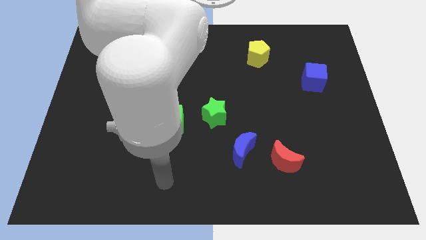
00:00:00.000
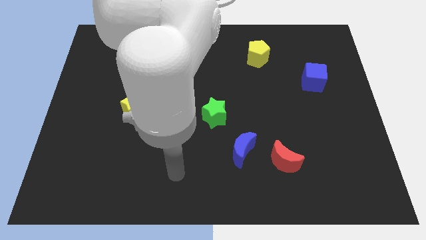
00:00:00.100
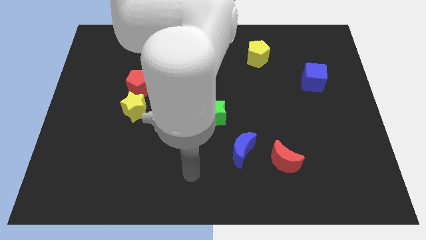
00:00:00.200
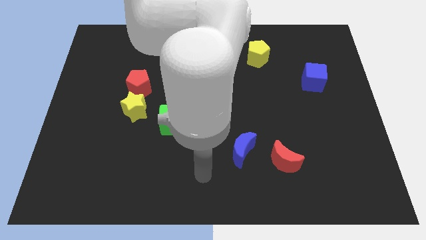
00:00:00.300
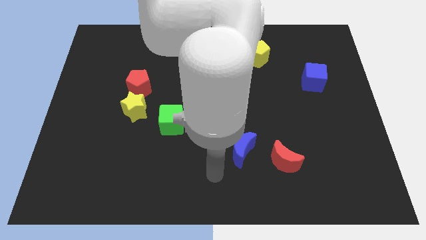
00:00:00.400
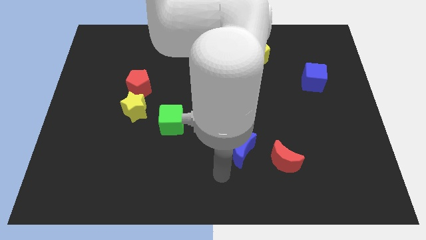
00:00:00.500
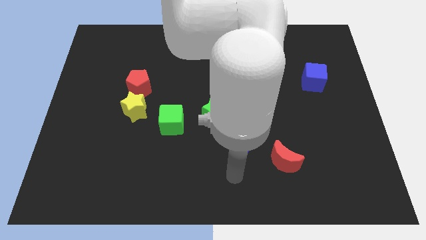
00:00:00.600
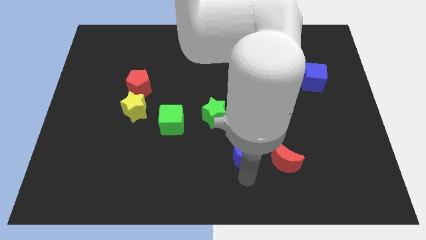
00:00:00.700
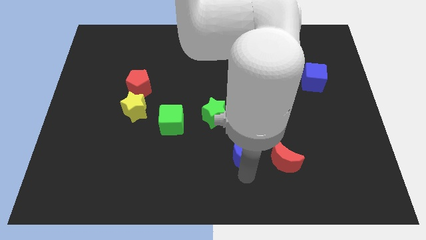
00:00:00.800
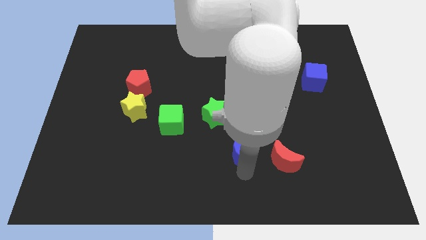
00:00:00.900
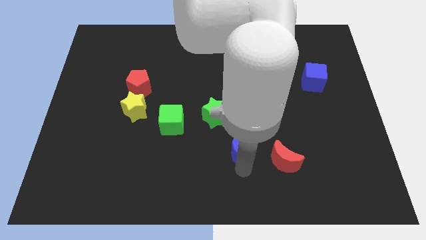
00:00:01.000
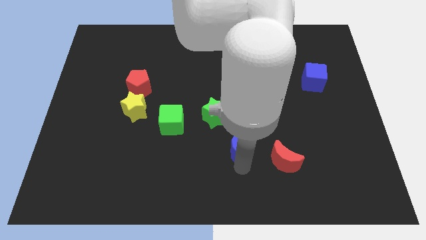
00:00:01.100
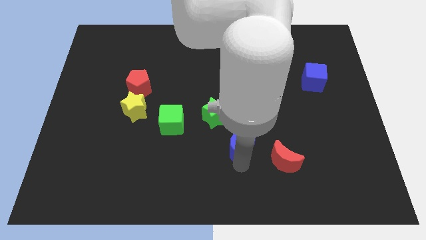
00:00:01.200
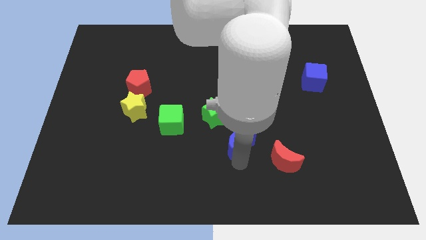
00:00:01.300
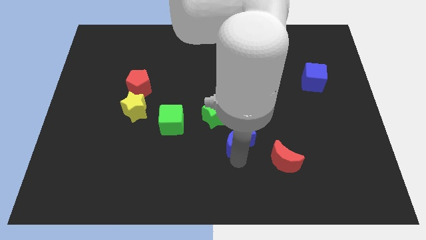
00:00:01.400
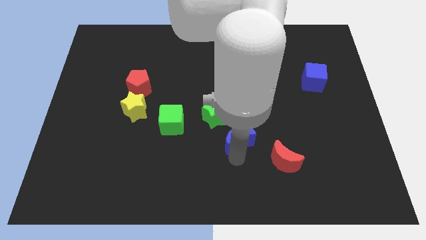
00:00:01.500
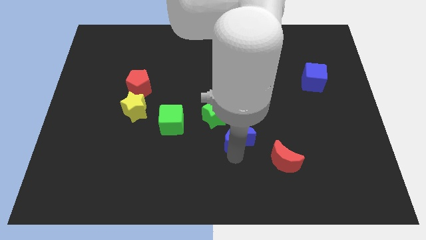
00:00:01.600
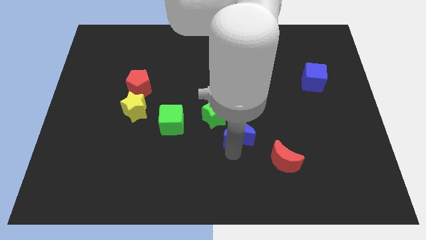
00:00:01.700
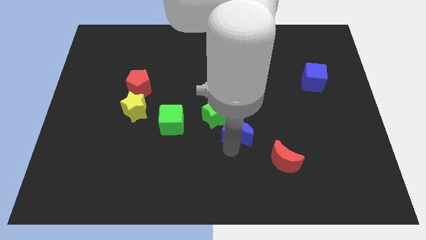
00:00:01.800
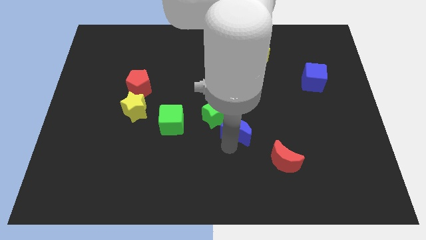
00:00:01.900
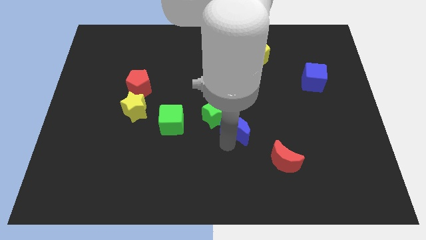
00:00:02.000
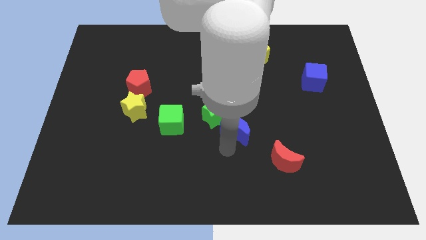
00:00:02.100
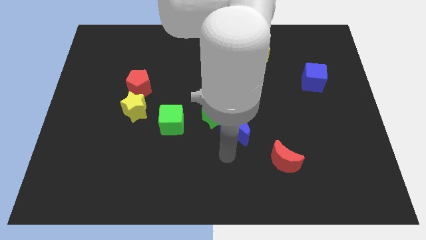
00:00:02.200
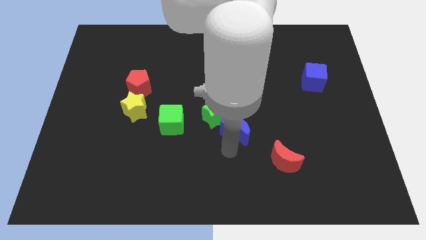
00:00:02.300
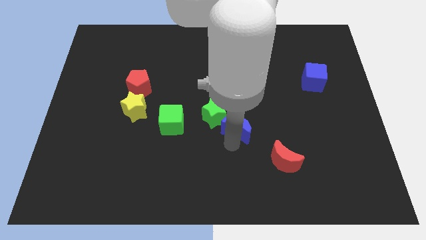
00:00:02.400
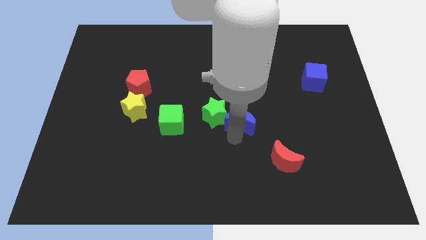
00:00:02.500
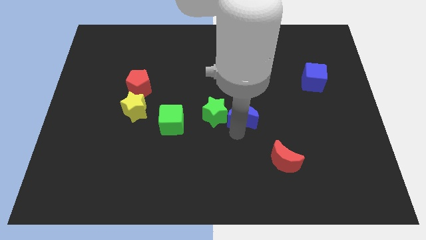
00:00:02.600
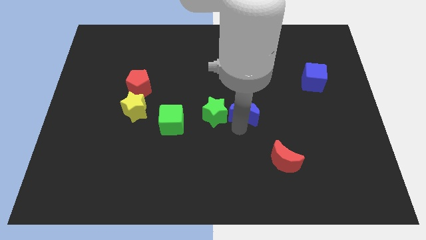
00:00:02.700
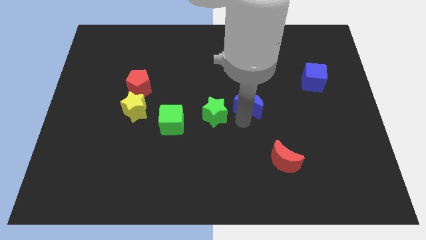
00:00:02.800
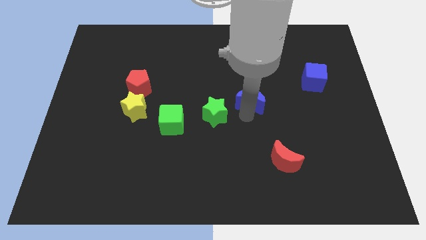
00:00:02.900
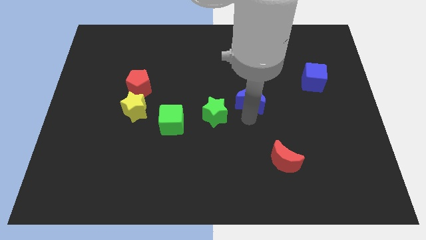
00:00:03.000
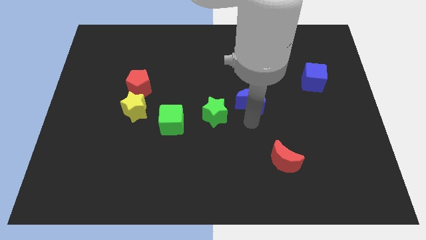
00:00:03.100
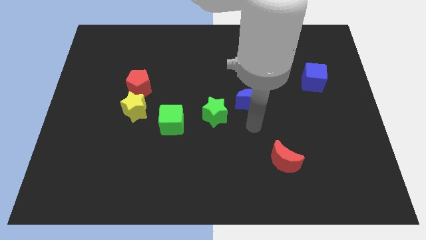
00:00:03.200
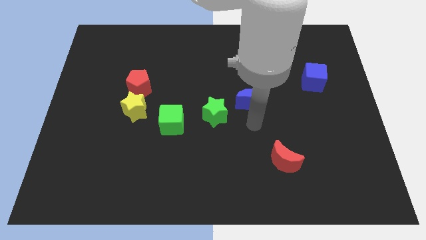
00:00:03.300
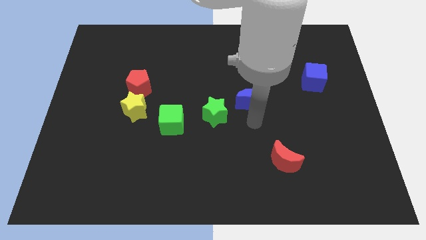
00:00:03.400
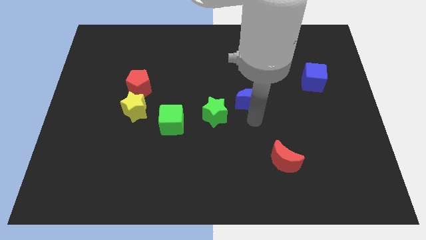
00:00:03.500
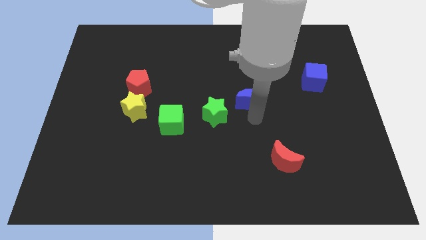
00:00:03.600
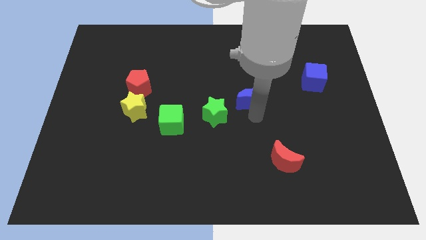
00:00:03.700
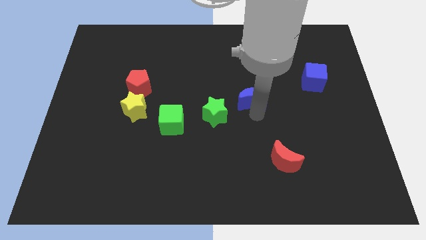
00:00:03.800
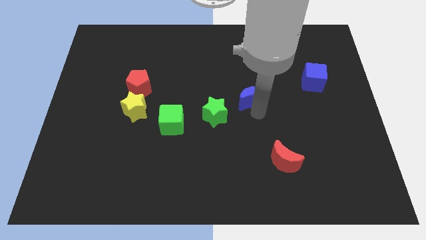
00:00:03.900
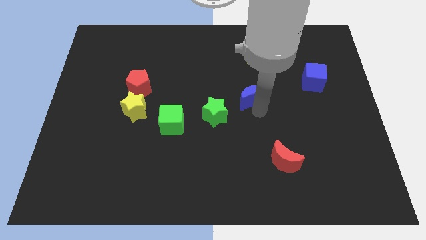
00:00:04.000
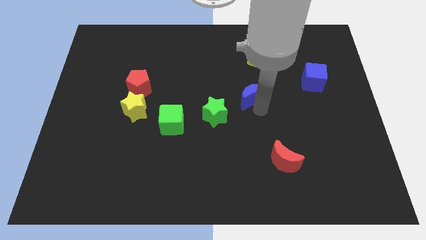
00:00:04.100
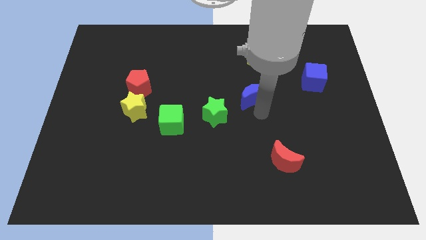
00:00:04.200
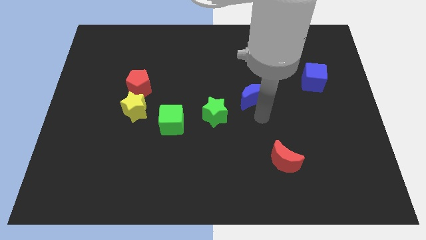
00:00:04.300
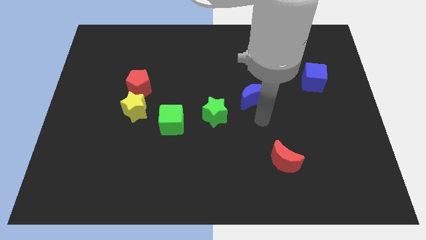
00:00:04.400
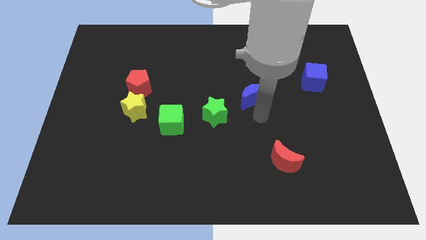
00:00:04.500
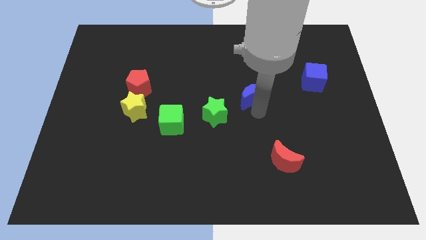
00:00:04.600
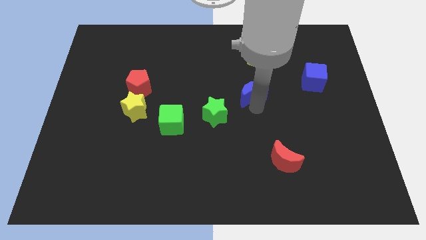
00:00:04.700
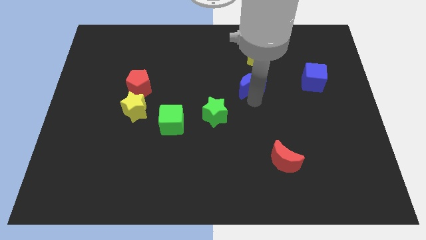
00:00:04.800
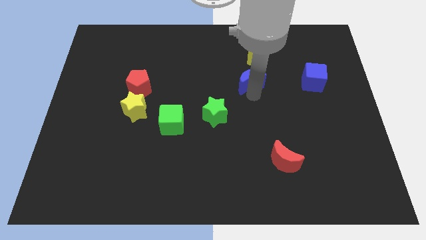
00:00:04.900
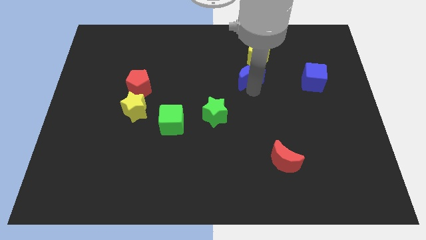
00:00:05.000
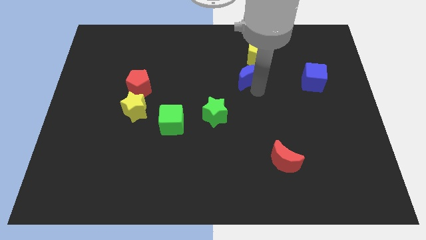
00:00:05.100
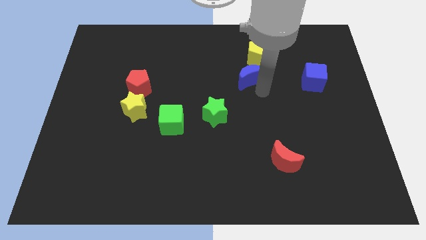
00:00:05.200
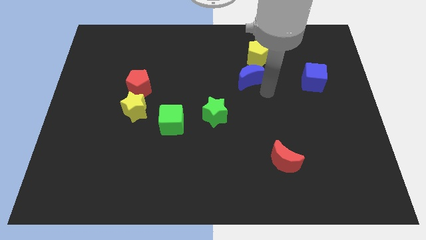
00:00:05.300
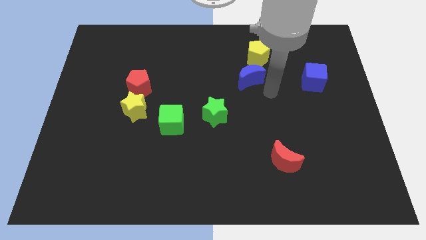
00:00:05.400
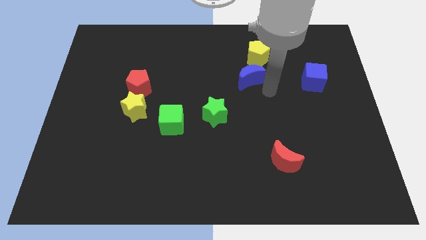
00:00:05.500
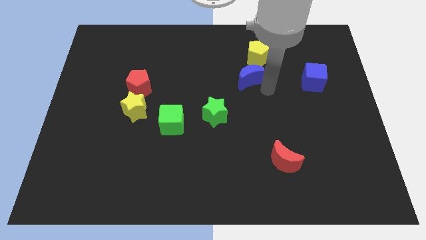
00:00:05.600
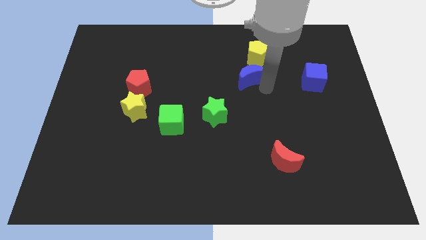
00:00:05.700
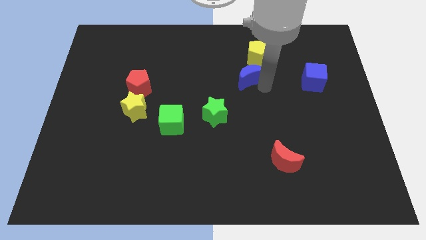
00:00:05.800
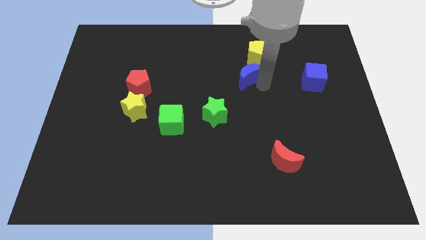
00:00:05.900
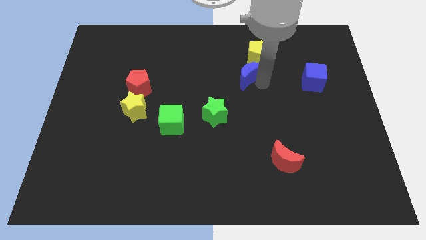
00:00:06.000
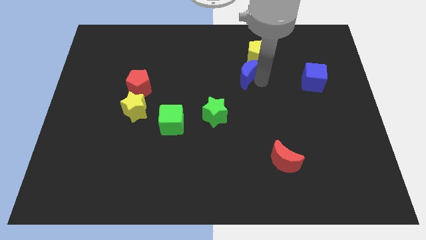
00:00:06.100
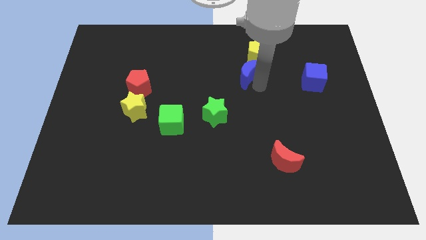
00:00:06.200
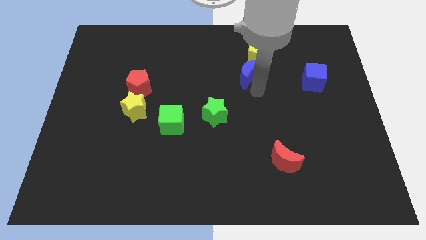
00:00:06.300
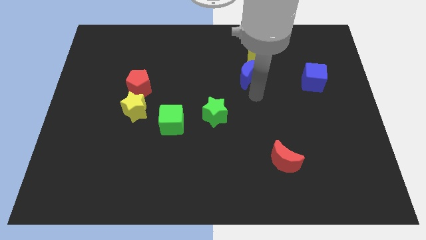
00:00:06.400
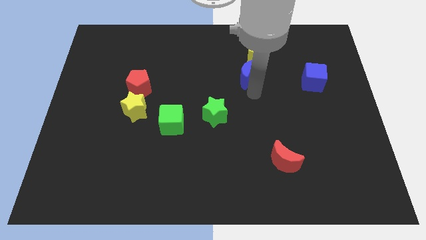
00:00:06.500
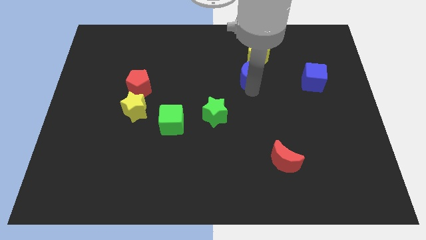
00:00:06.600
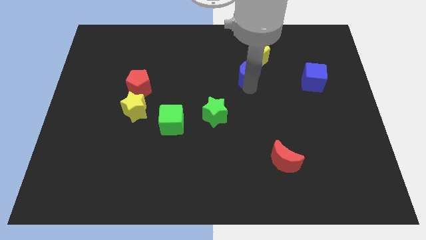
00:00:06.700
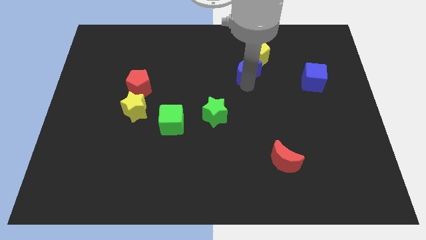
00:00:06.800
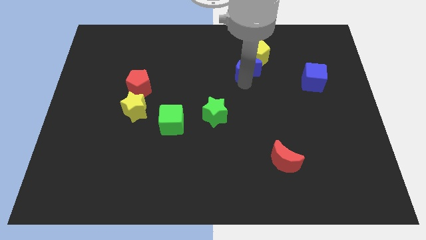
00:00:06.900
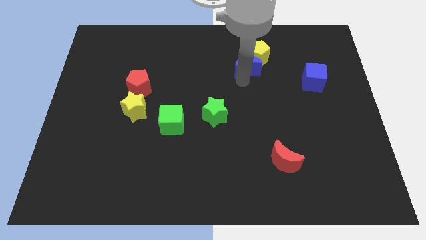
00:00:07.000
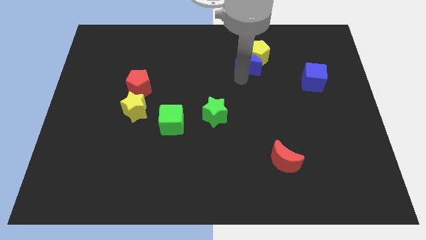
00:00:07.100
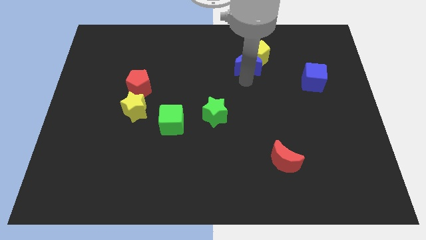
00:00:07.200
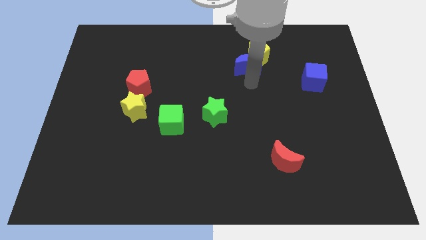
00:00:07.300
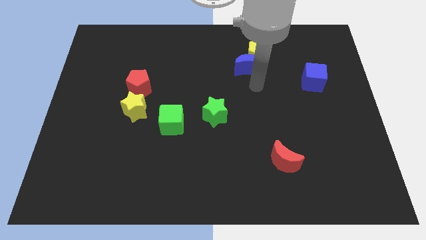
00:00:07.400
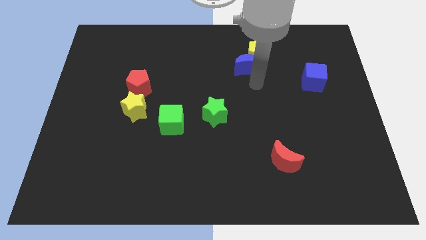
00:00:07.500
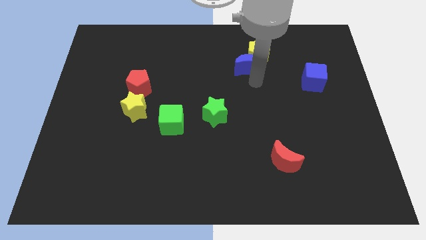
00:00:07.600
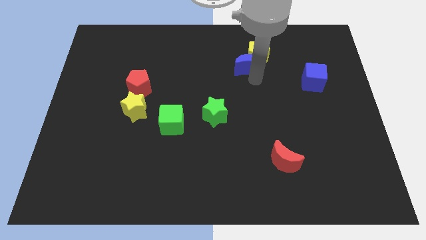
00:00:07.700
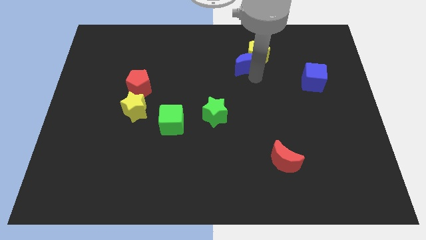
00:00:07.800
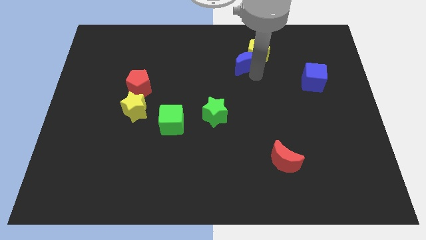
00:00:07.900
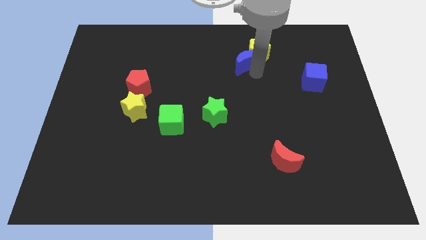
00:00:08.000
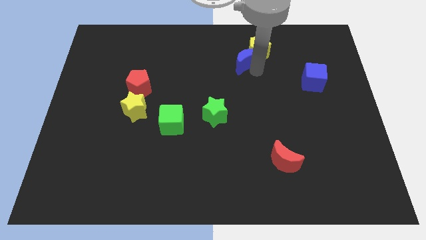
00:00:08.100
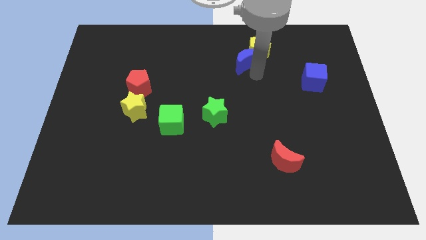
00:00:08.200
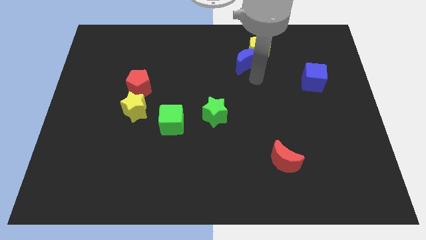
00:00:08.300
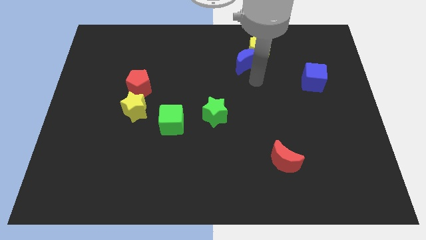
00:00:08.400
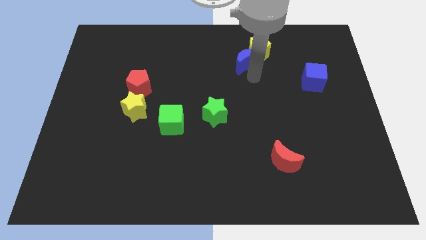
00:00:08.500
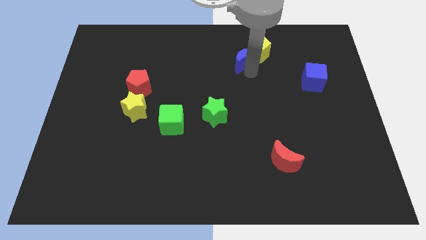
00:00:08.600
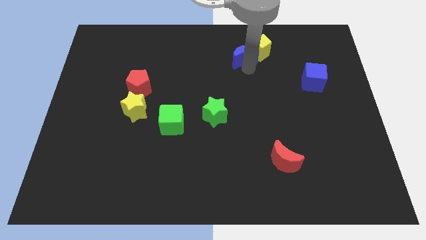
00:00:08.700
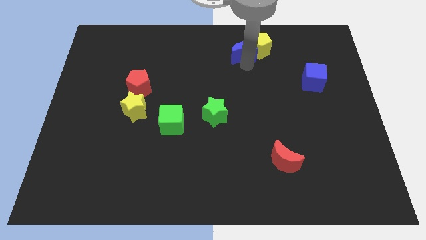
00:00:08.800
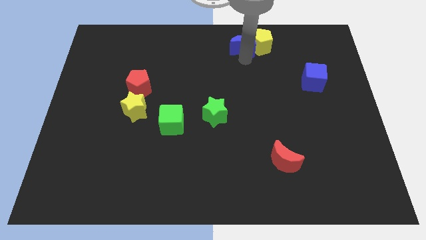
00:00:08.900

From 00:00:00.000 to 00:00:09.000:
put the blue moon to the towards your base
